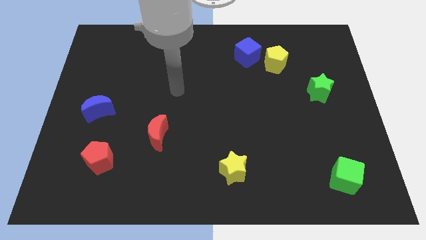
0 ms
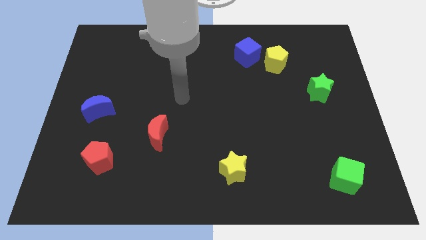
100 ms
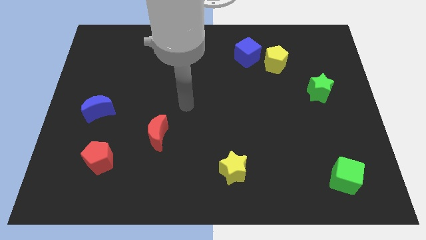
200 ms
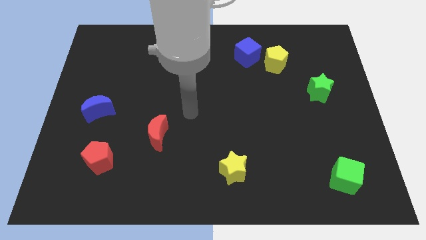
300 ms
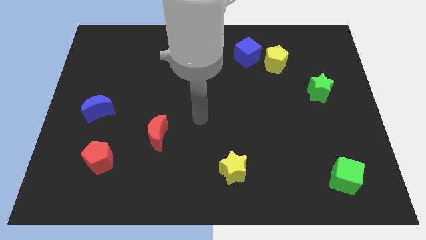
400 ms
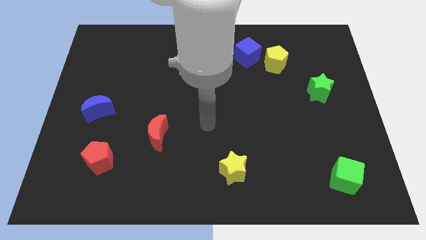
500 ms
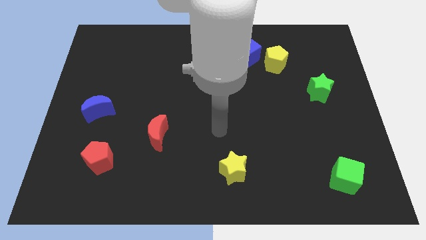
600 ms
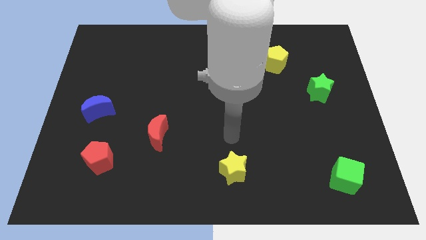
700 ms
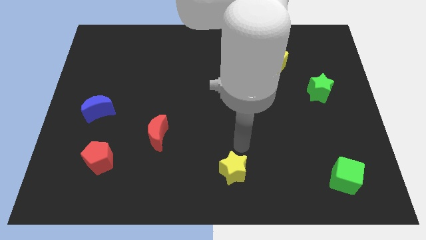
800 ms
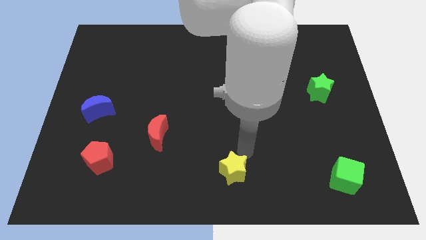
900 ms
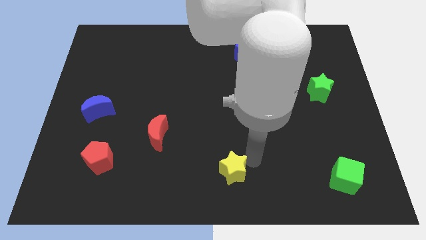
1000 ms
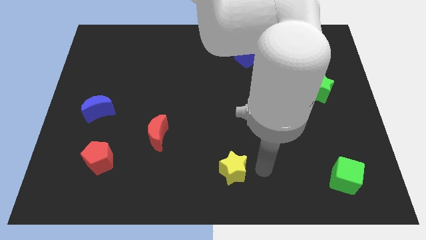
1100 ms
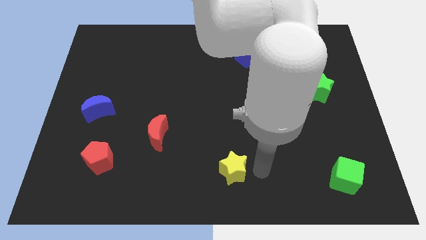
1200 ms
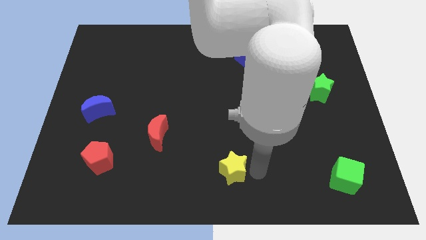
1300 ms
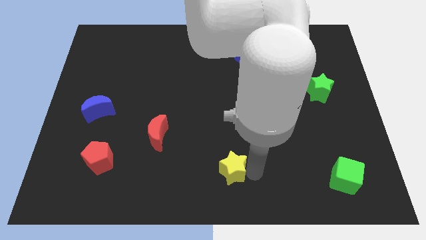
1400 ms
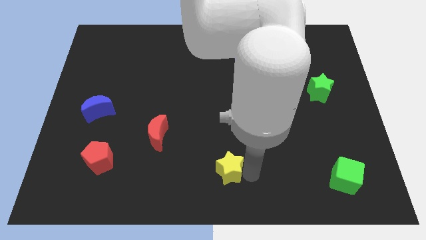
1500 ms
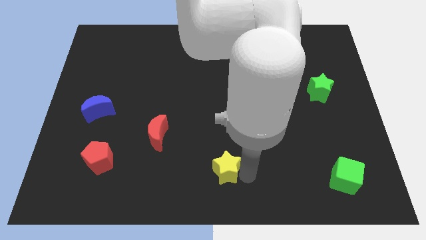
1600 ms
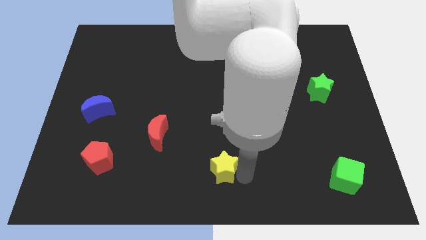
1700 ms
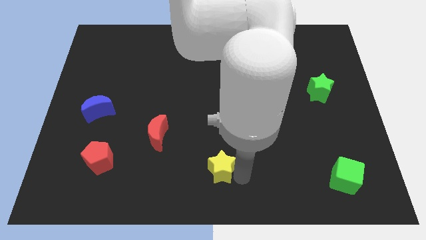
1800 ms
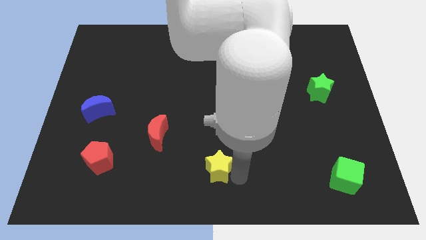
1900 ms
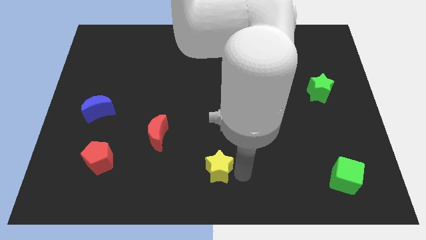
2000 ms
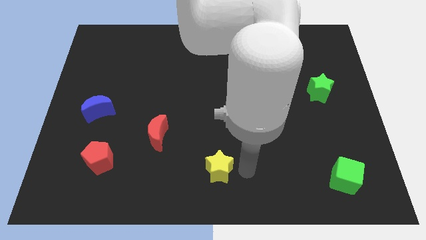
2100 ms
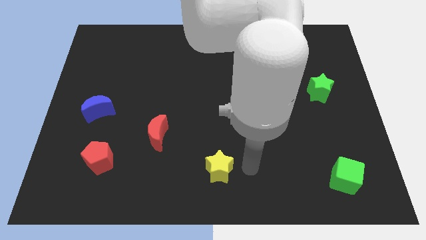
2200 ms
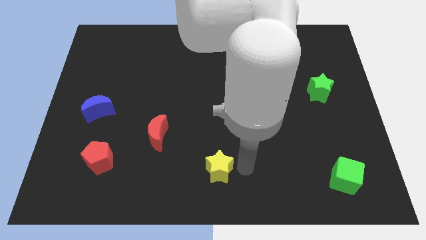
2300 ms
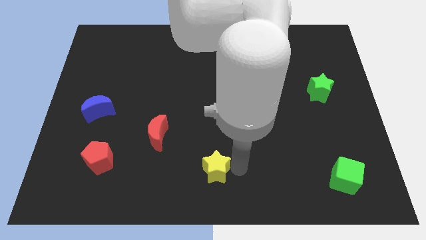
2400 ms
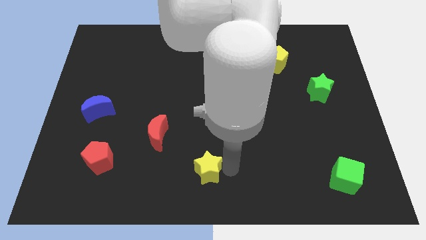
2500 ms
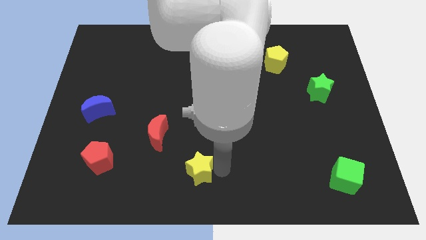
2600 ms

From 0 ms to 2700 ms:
slightly move the yellow star to the left

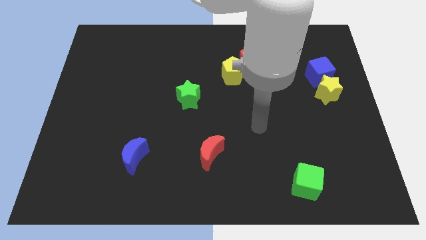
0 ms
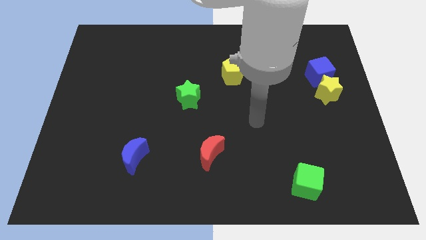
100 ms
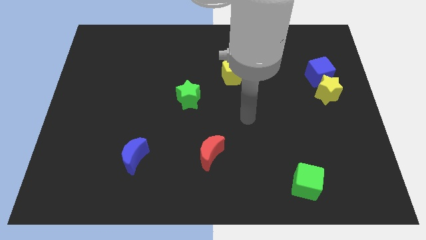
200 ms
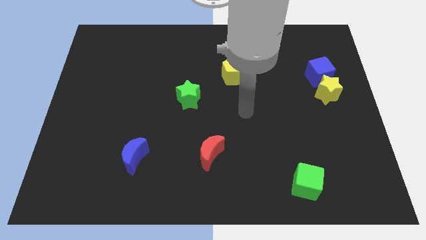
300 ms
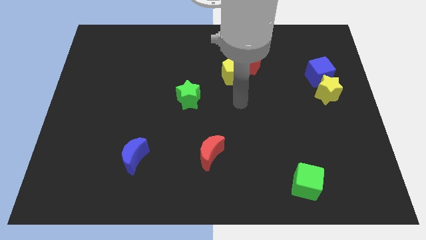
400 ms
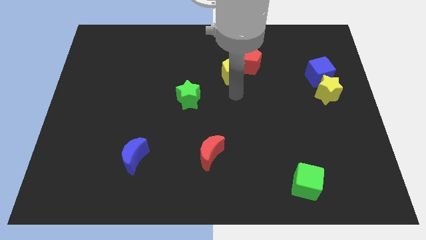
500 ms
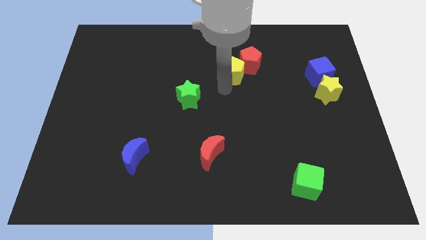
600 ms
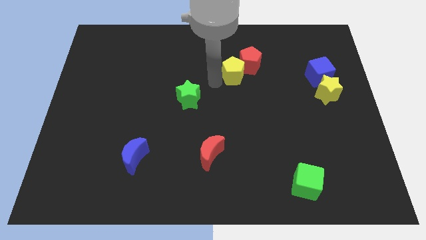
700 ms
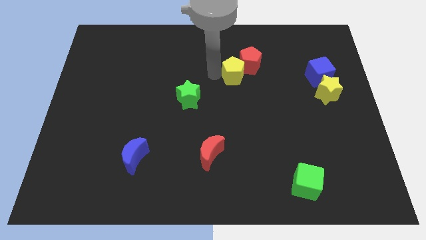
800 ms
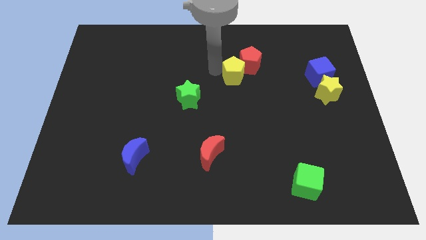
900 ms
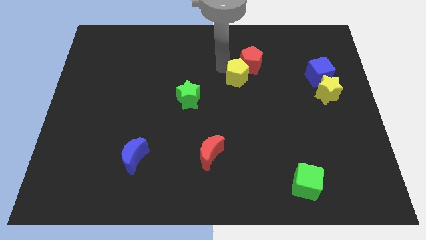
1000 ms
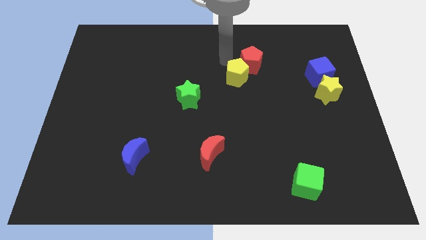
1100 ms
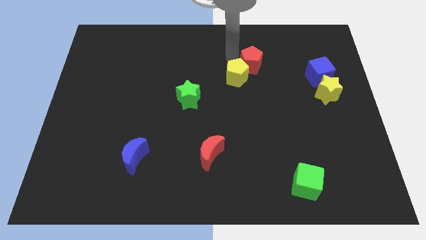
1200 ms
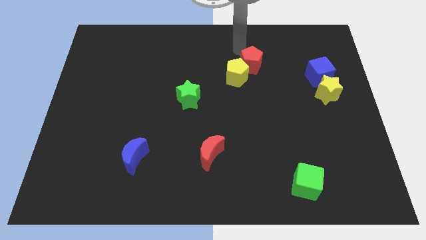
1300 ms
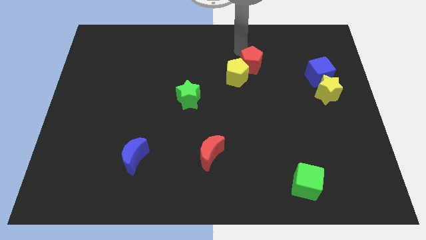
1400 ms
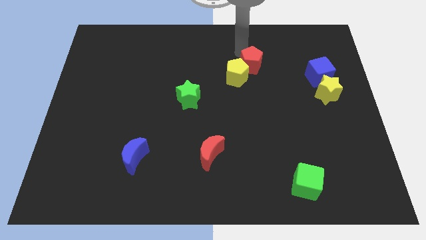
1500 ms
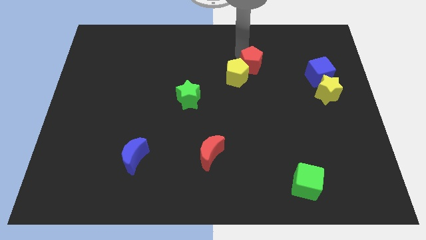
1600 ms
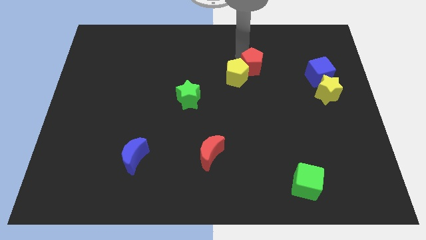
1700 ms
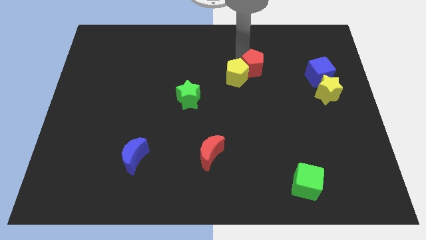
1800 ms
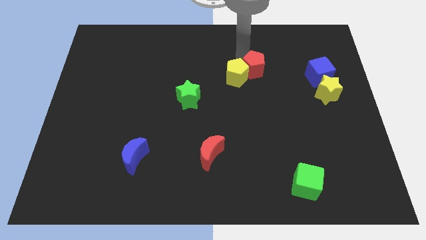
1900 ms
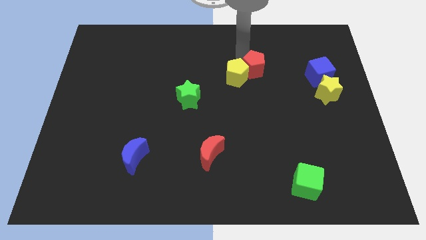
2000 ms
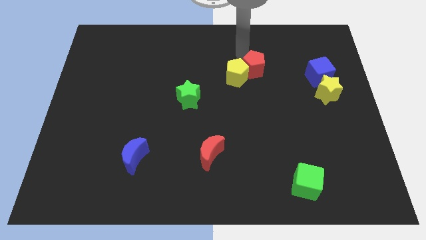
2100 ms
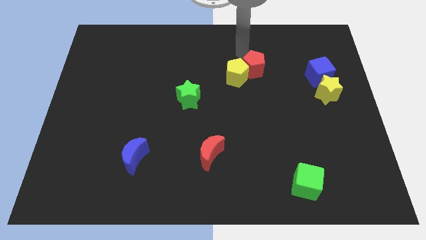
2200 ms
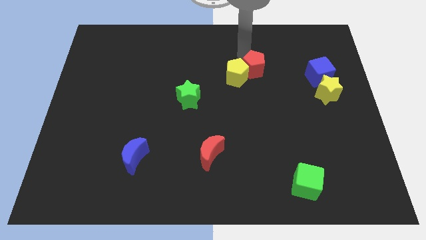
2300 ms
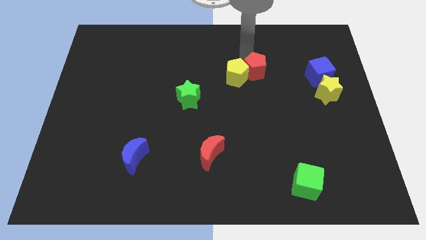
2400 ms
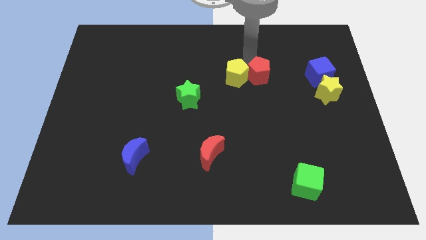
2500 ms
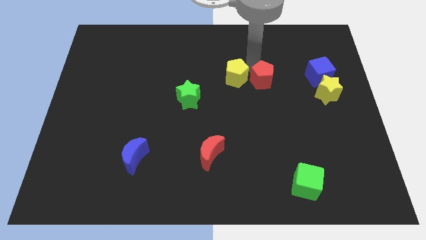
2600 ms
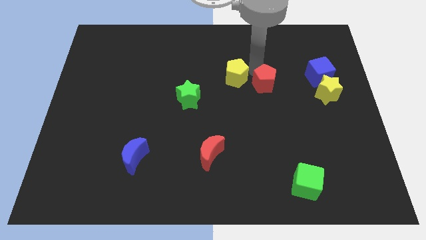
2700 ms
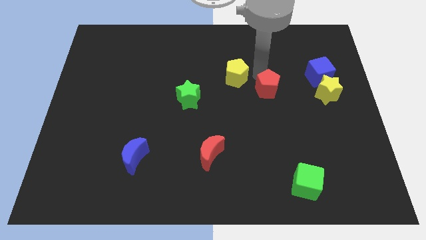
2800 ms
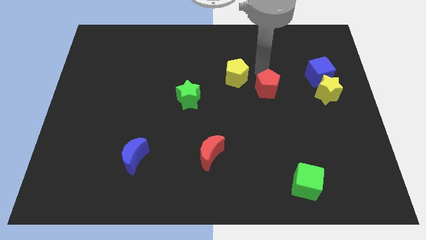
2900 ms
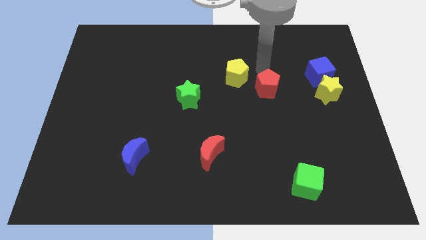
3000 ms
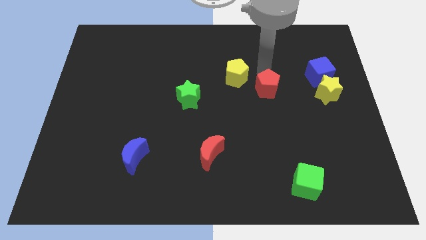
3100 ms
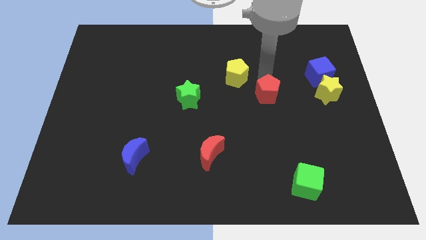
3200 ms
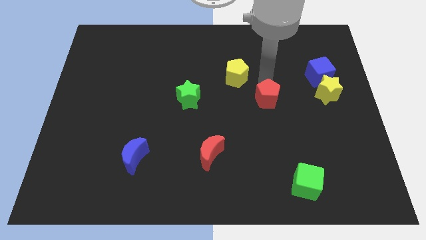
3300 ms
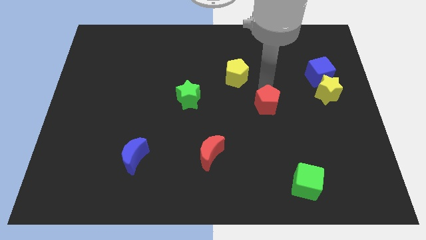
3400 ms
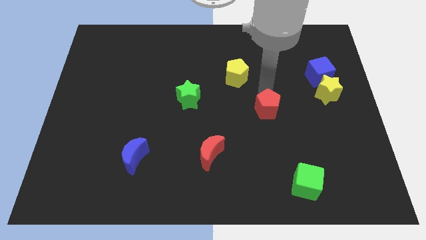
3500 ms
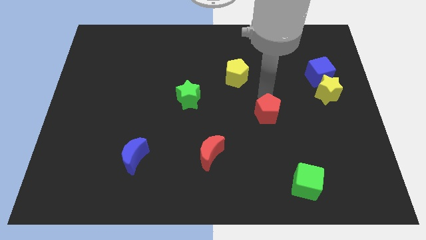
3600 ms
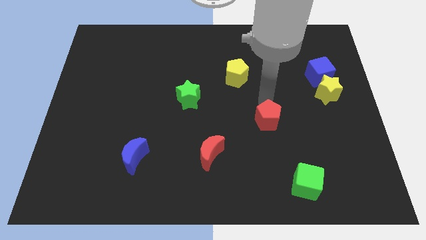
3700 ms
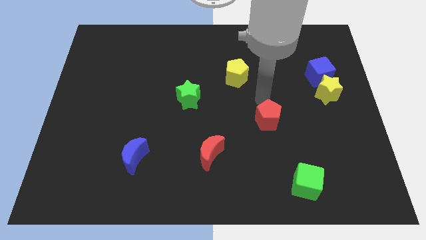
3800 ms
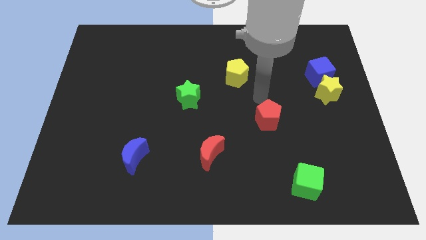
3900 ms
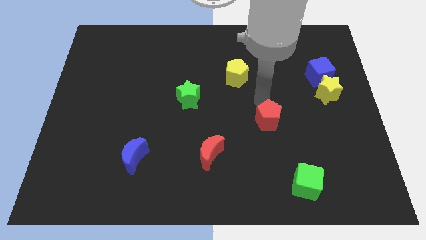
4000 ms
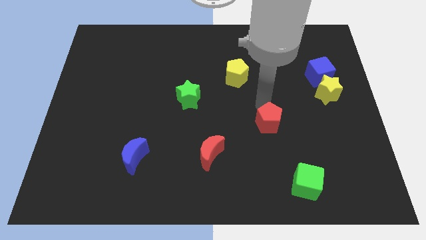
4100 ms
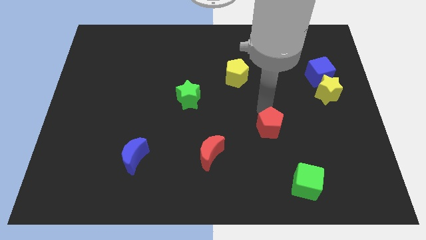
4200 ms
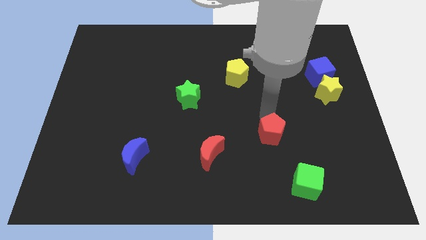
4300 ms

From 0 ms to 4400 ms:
move the red pentagon down

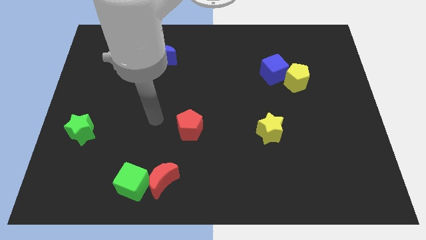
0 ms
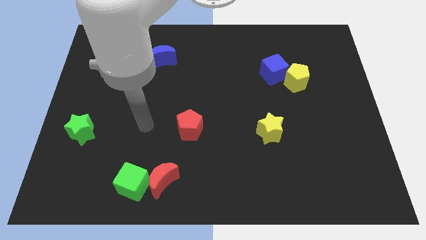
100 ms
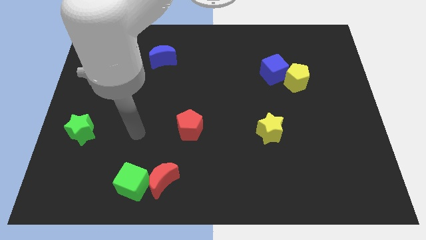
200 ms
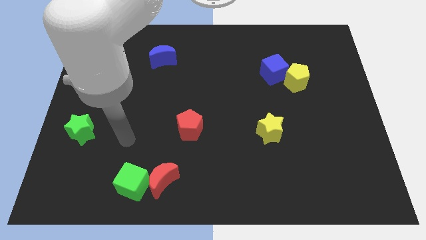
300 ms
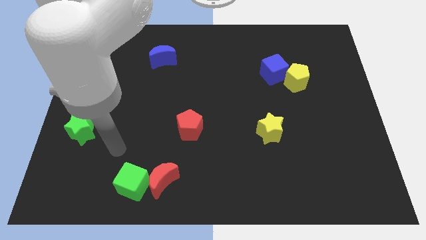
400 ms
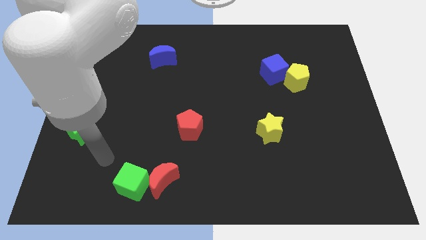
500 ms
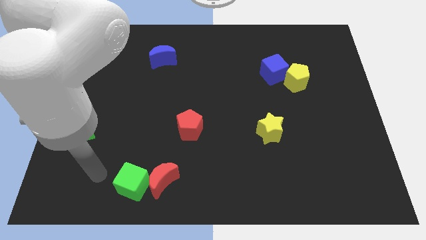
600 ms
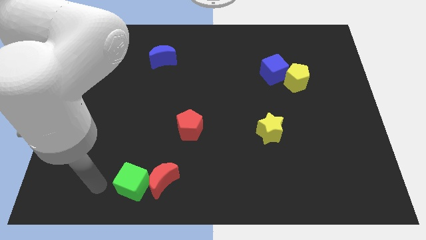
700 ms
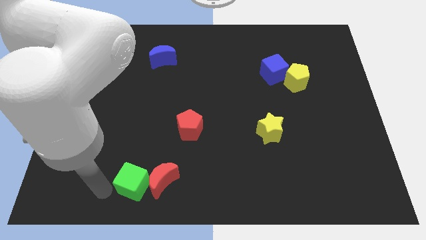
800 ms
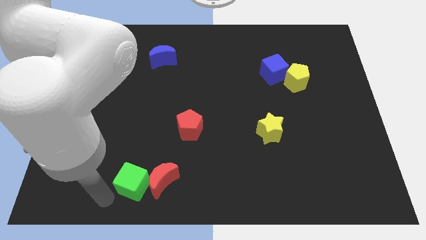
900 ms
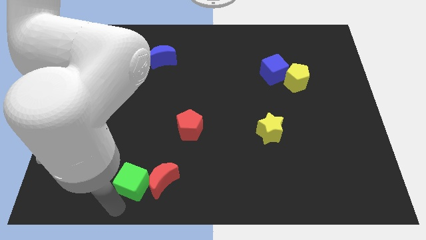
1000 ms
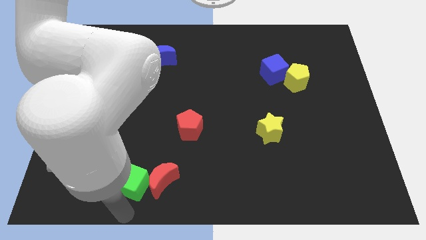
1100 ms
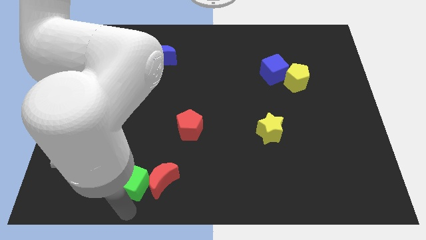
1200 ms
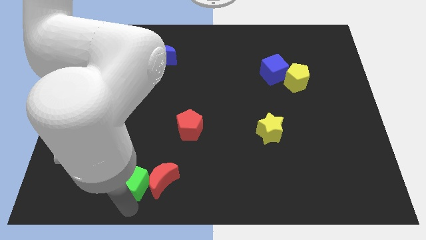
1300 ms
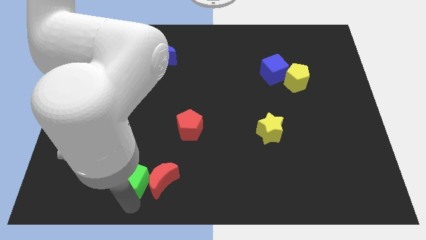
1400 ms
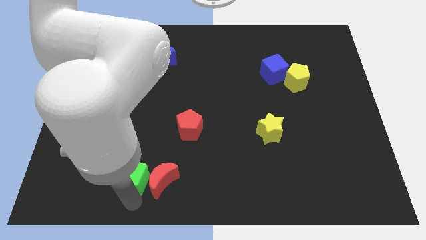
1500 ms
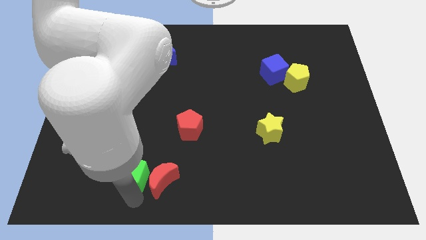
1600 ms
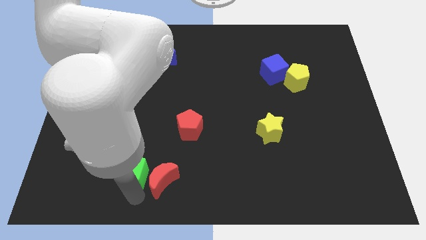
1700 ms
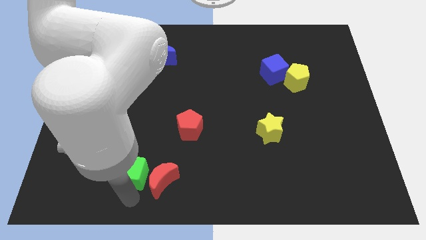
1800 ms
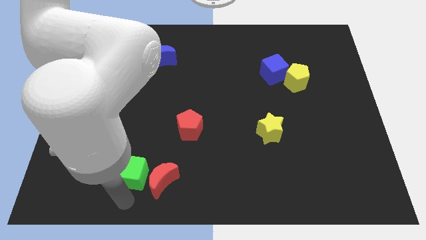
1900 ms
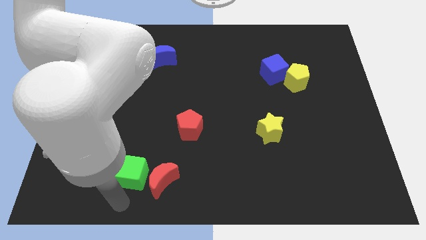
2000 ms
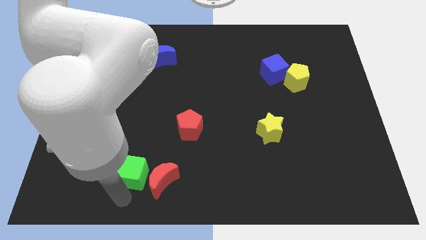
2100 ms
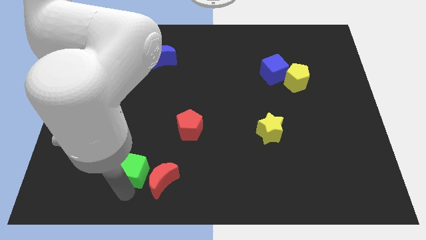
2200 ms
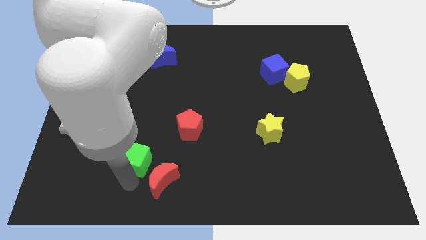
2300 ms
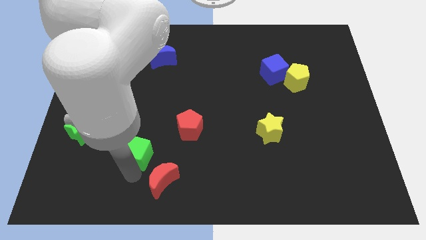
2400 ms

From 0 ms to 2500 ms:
push the green cube a little bit upwards
